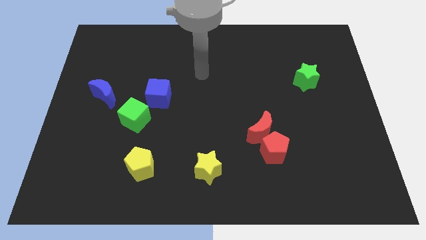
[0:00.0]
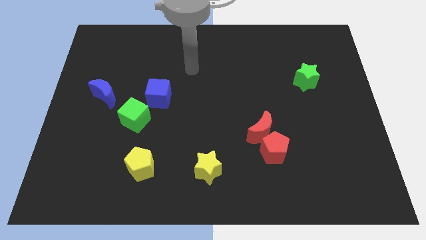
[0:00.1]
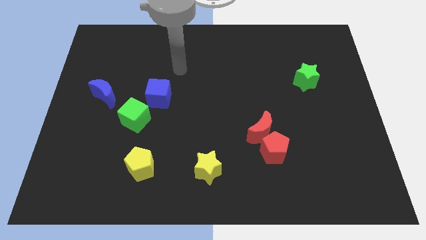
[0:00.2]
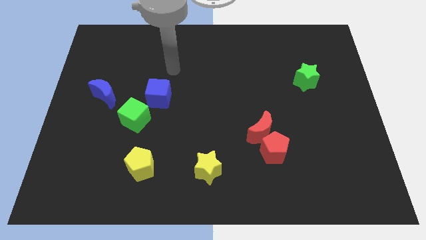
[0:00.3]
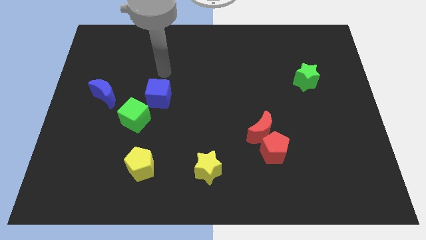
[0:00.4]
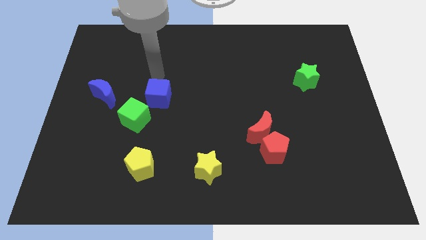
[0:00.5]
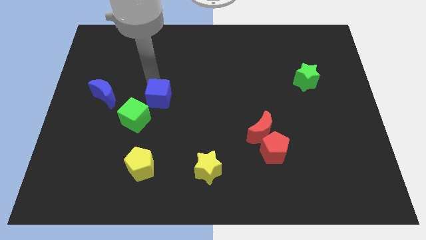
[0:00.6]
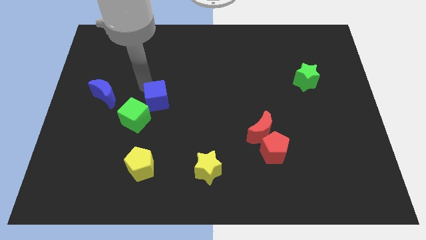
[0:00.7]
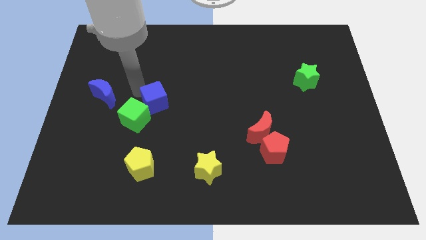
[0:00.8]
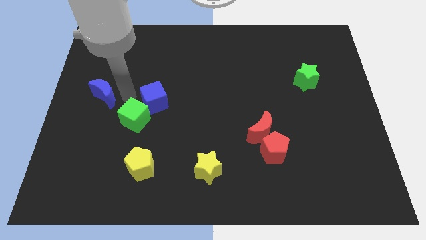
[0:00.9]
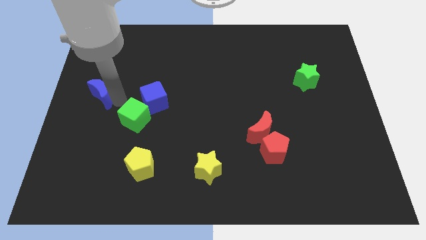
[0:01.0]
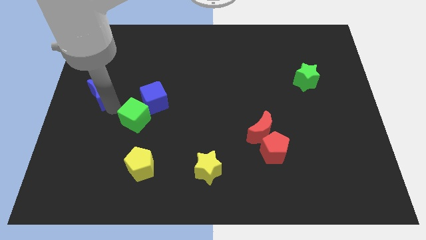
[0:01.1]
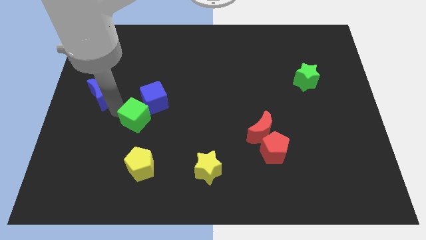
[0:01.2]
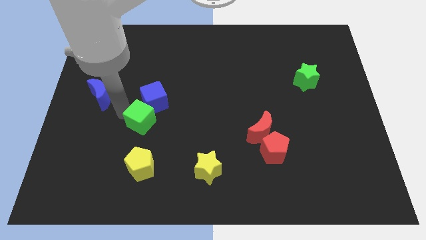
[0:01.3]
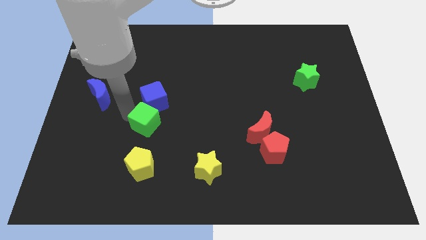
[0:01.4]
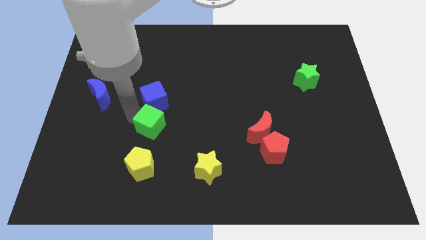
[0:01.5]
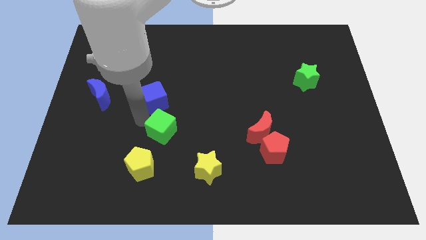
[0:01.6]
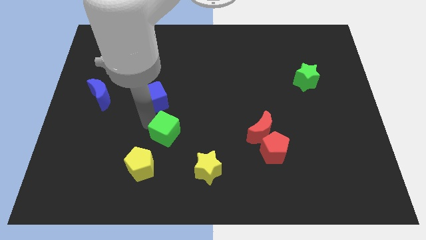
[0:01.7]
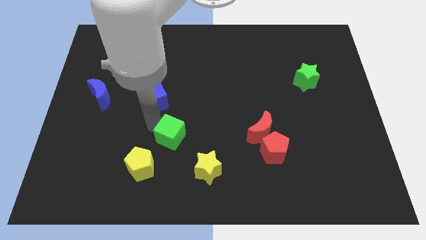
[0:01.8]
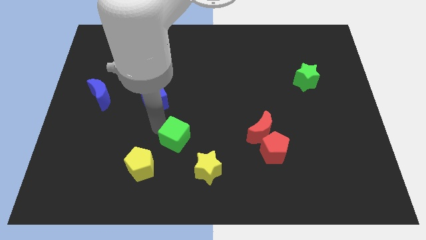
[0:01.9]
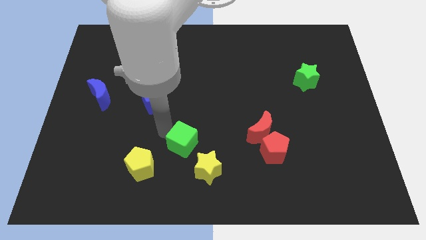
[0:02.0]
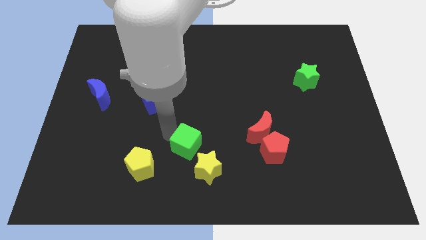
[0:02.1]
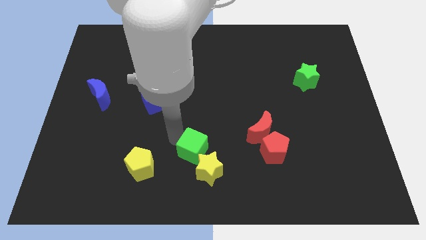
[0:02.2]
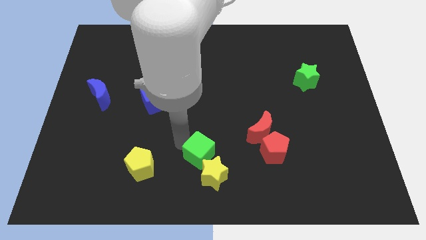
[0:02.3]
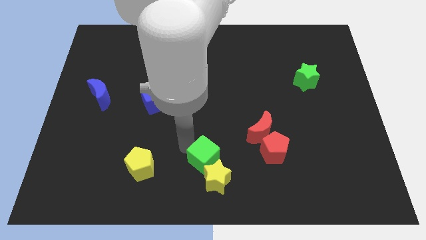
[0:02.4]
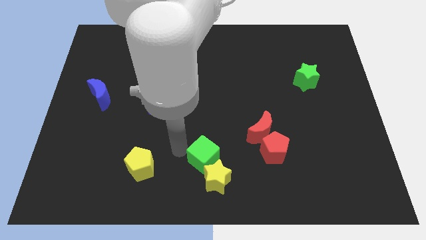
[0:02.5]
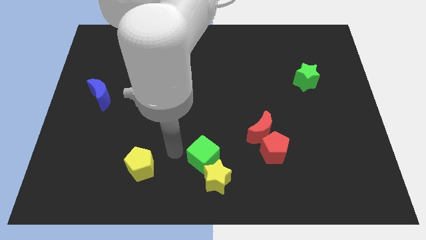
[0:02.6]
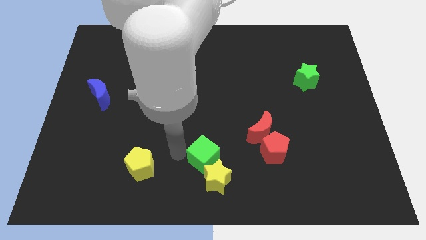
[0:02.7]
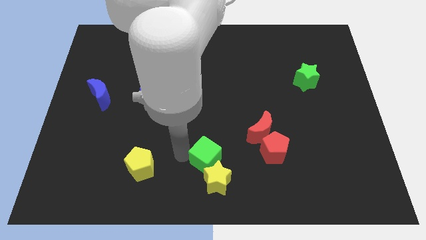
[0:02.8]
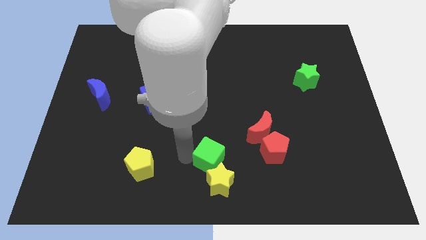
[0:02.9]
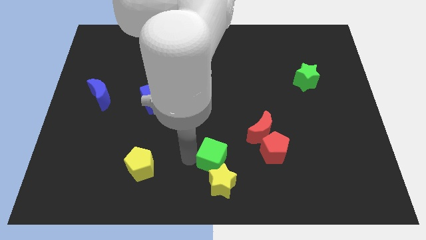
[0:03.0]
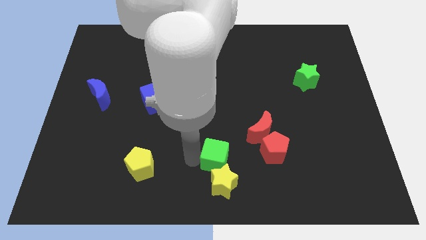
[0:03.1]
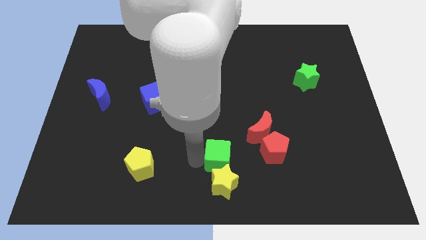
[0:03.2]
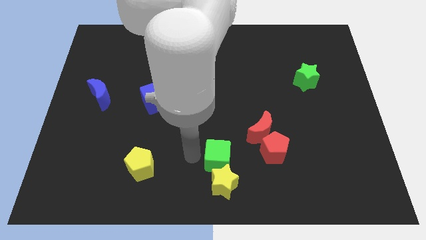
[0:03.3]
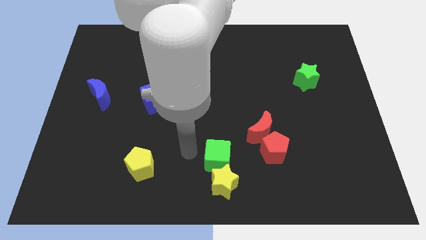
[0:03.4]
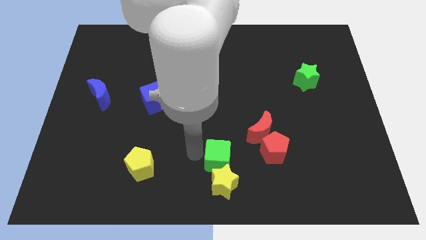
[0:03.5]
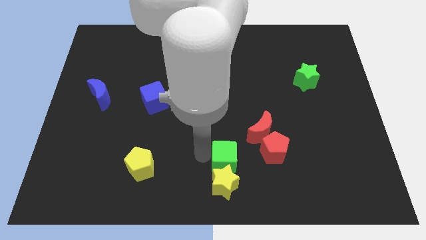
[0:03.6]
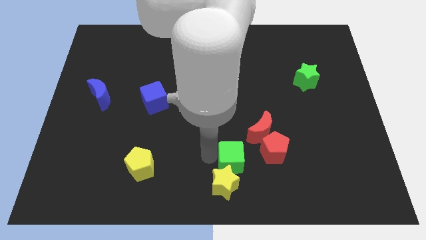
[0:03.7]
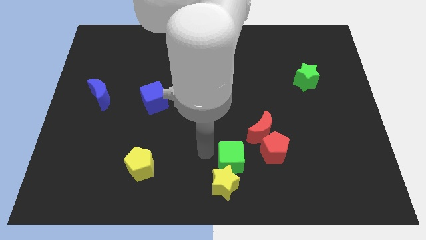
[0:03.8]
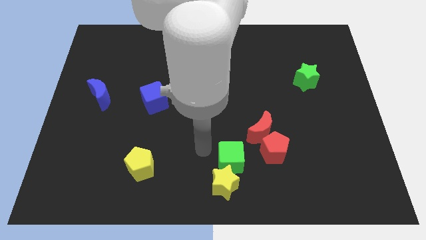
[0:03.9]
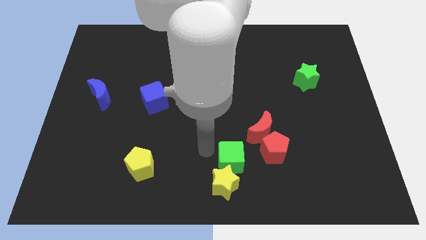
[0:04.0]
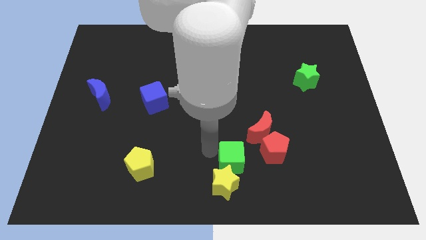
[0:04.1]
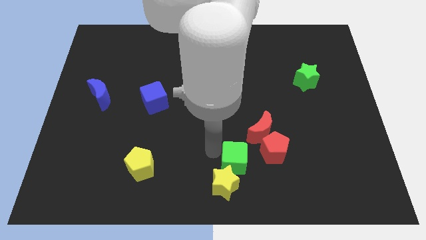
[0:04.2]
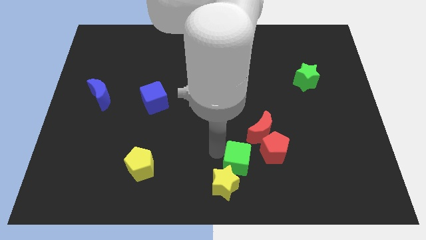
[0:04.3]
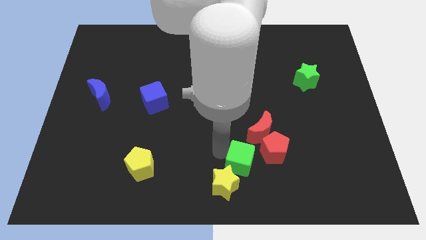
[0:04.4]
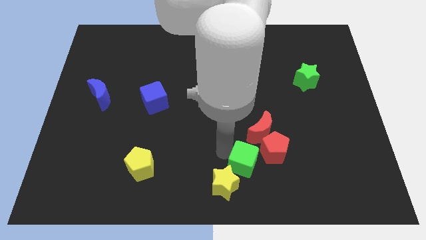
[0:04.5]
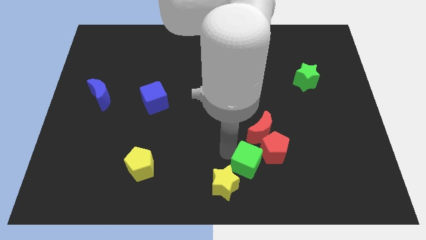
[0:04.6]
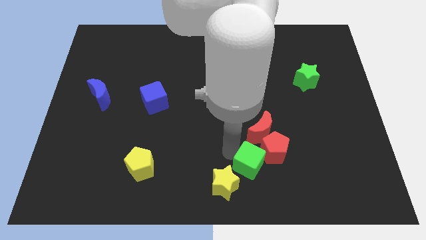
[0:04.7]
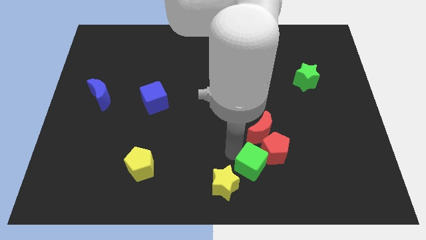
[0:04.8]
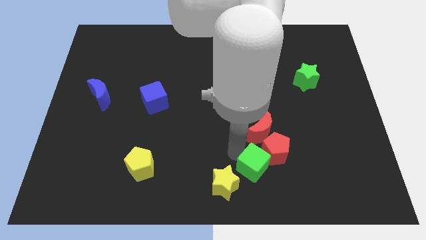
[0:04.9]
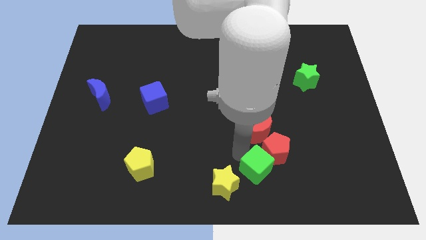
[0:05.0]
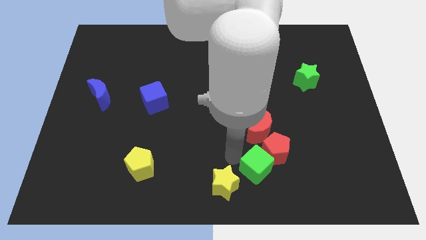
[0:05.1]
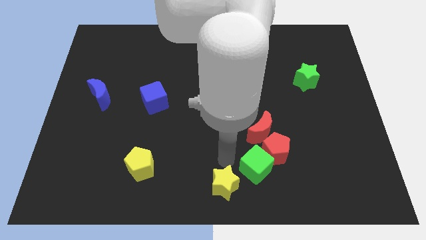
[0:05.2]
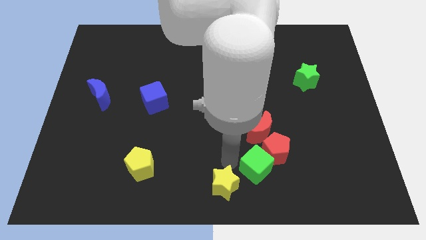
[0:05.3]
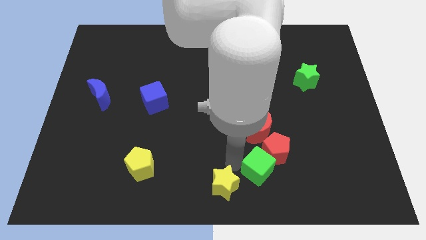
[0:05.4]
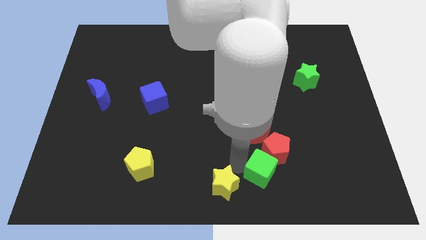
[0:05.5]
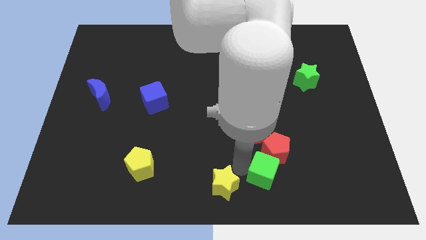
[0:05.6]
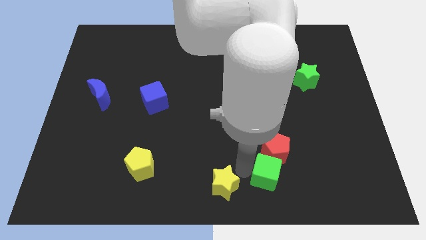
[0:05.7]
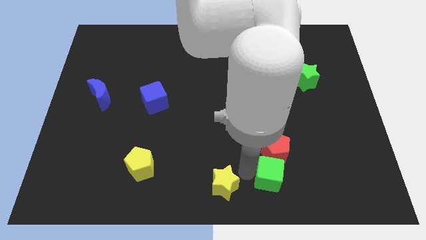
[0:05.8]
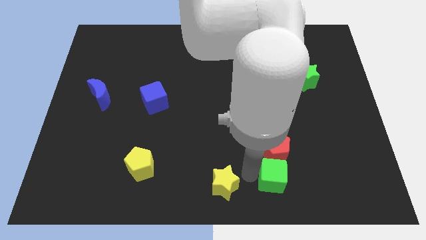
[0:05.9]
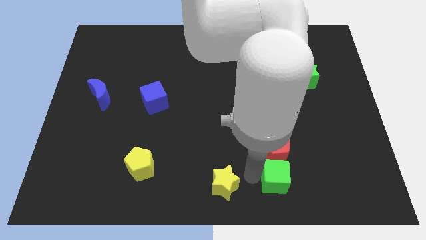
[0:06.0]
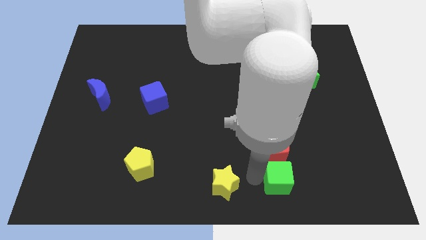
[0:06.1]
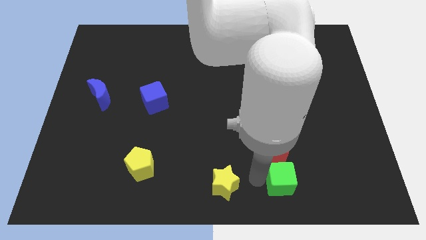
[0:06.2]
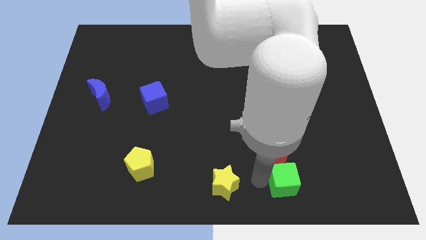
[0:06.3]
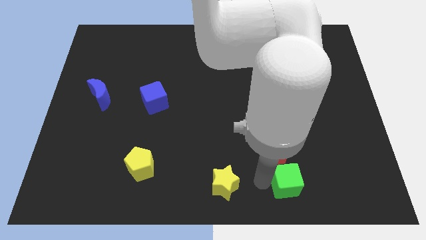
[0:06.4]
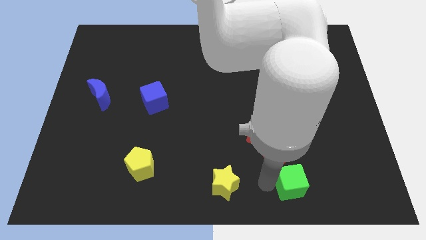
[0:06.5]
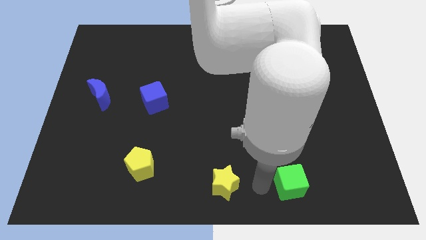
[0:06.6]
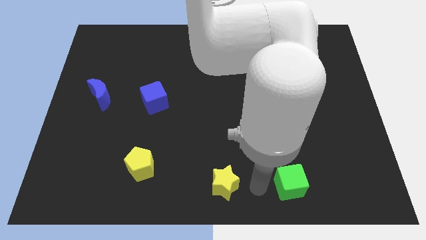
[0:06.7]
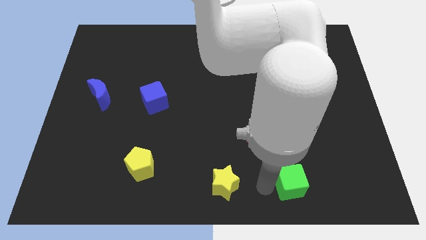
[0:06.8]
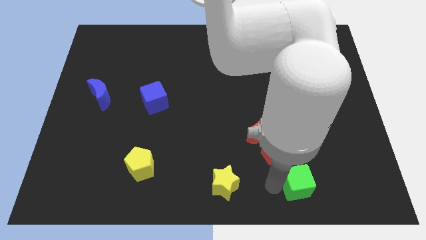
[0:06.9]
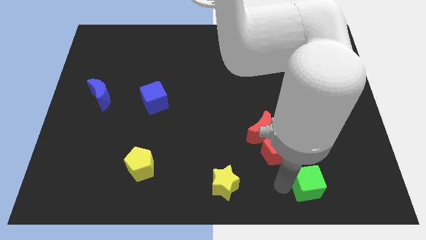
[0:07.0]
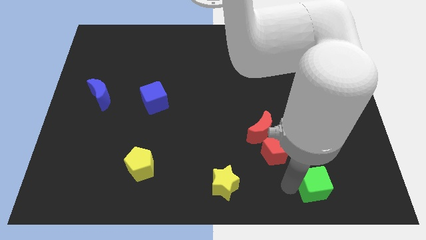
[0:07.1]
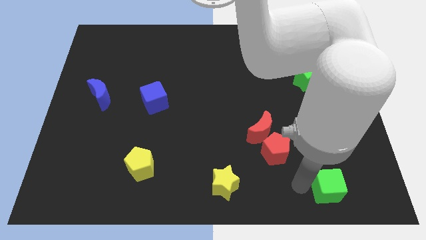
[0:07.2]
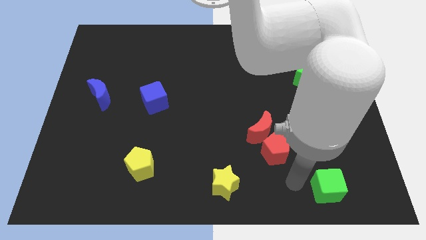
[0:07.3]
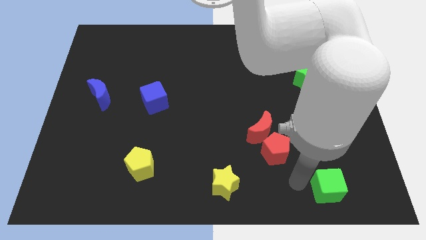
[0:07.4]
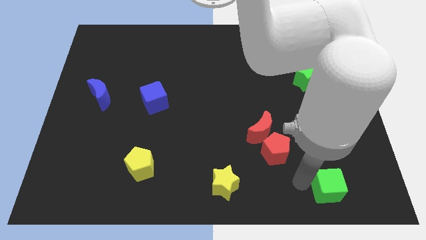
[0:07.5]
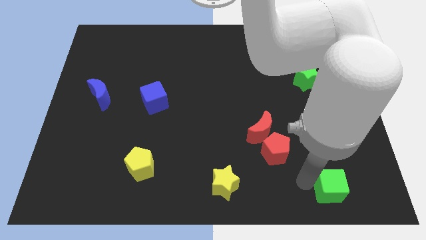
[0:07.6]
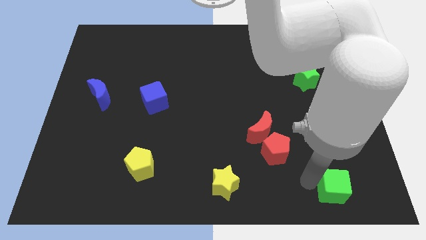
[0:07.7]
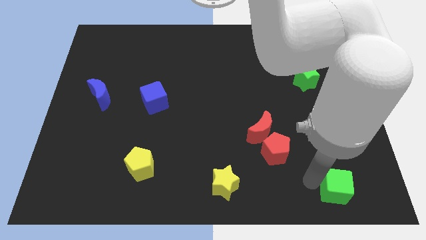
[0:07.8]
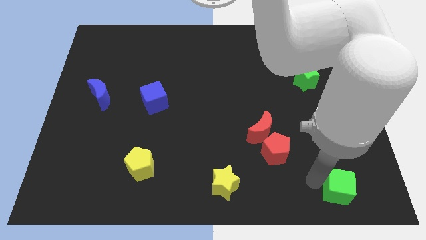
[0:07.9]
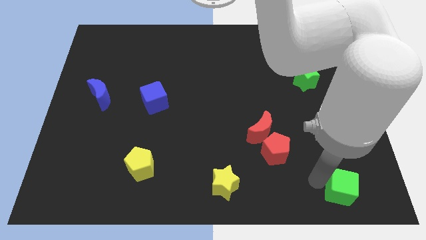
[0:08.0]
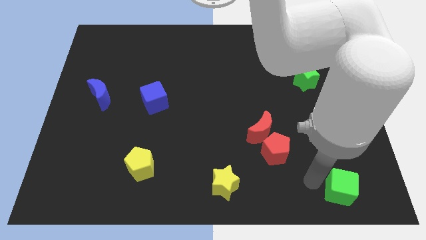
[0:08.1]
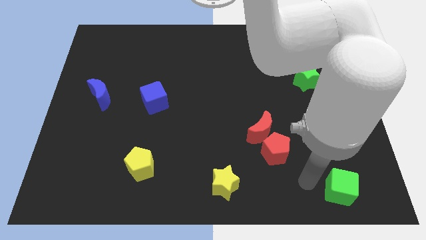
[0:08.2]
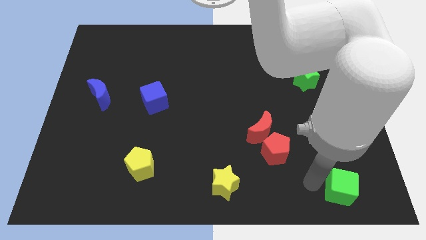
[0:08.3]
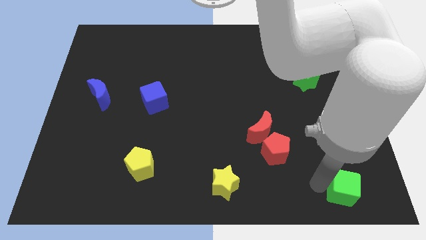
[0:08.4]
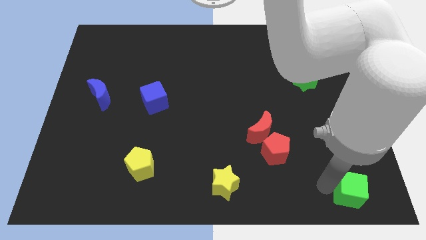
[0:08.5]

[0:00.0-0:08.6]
slide the green cube to the bottom right
